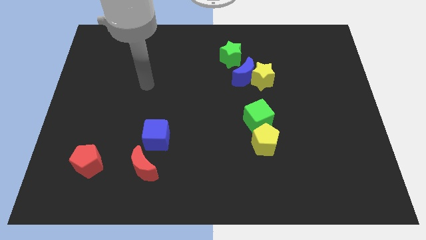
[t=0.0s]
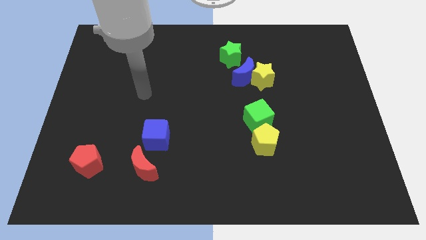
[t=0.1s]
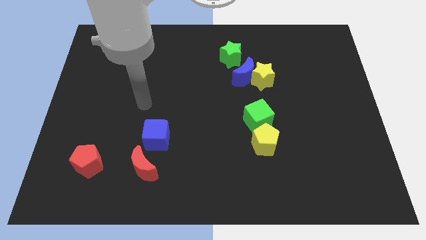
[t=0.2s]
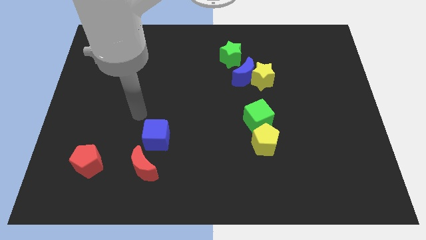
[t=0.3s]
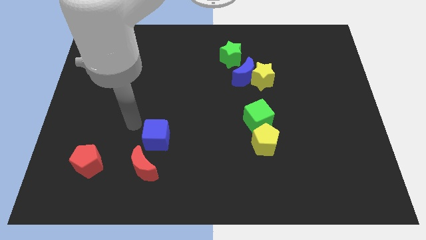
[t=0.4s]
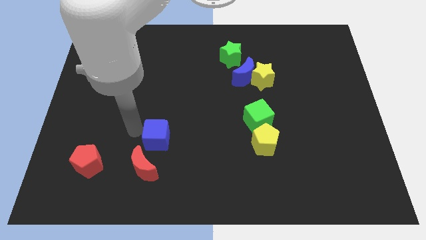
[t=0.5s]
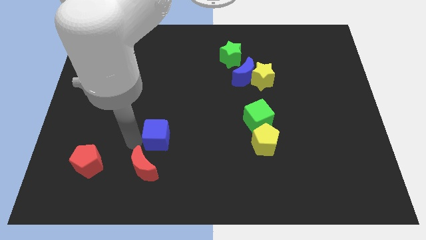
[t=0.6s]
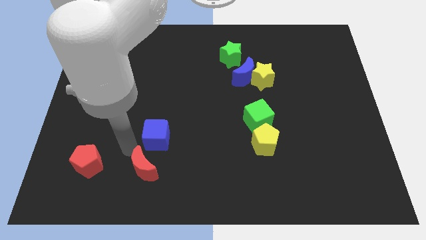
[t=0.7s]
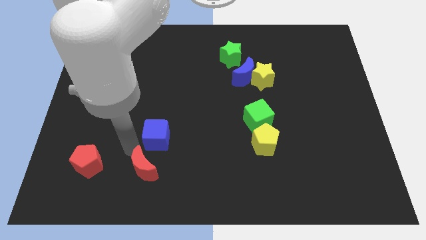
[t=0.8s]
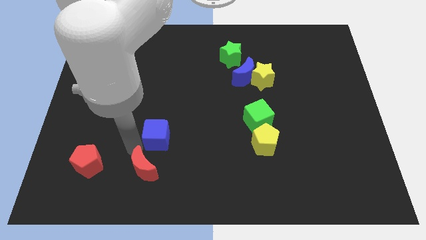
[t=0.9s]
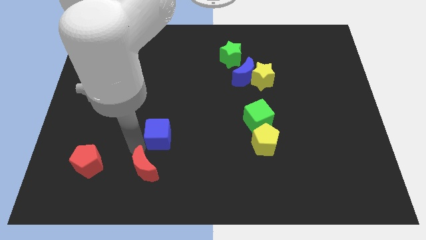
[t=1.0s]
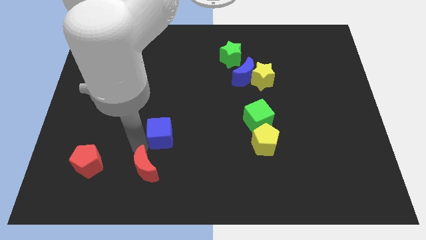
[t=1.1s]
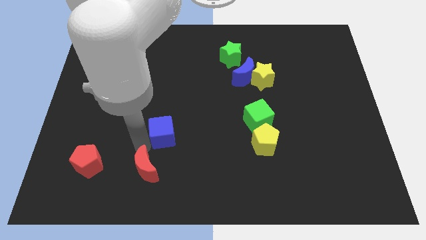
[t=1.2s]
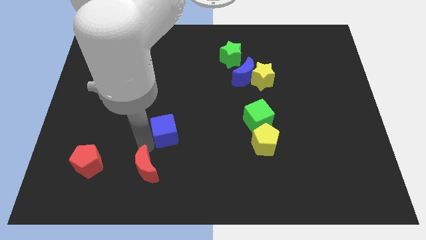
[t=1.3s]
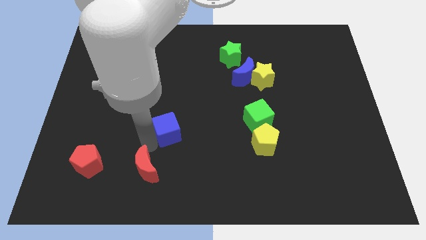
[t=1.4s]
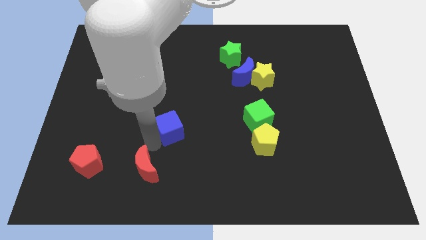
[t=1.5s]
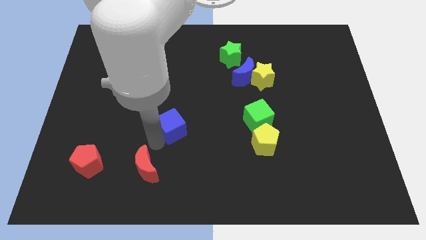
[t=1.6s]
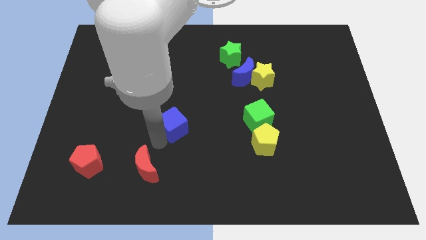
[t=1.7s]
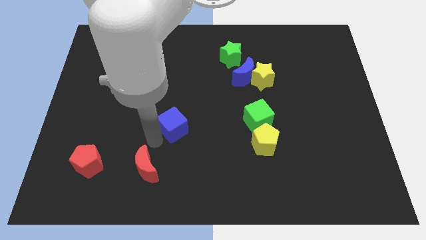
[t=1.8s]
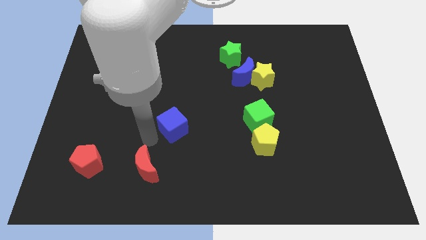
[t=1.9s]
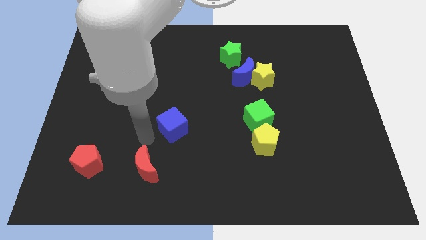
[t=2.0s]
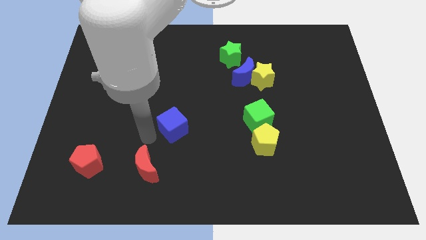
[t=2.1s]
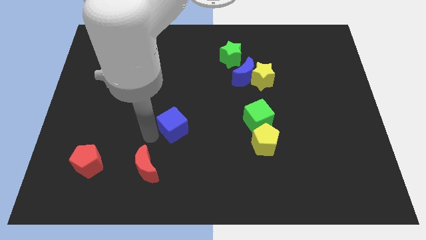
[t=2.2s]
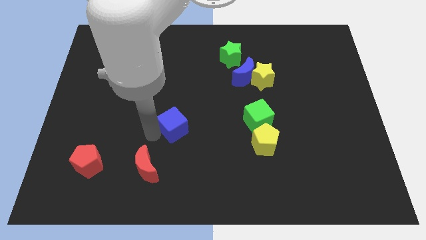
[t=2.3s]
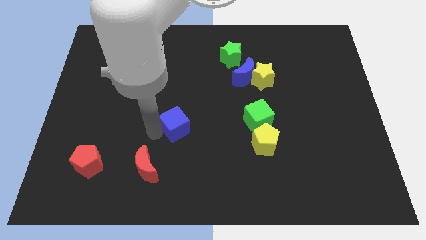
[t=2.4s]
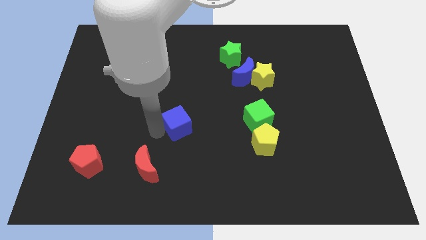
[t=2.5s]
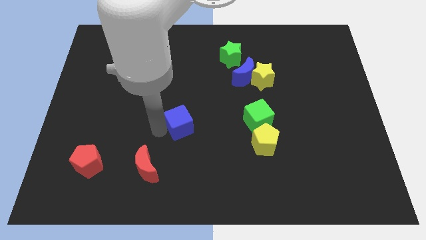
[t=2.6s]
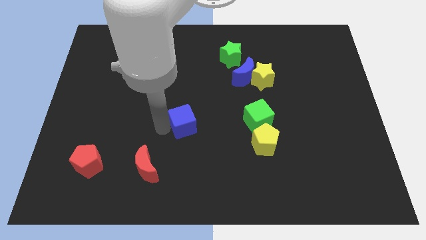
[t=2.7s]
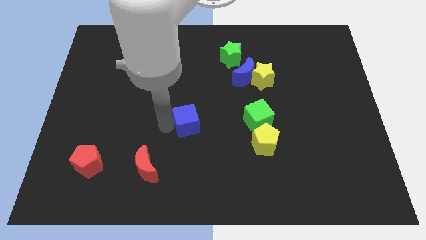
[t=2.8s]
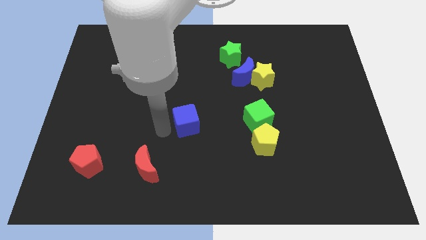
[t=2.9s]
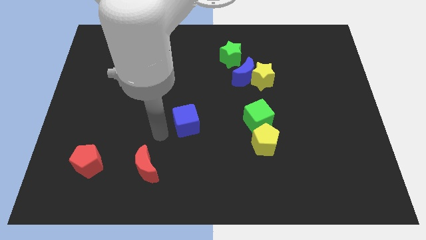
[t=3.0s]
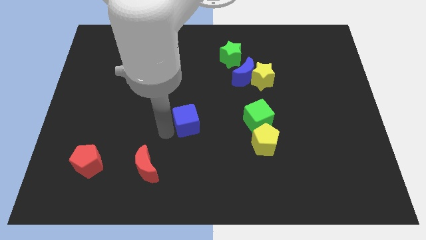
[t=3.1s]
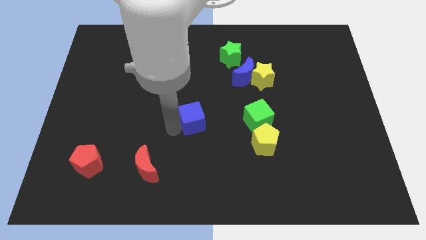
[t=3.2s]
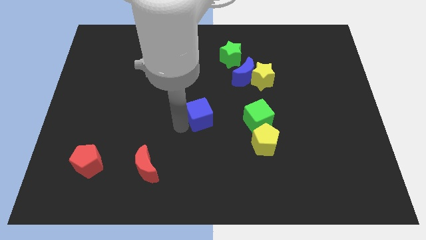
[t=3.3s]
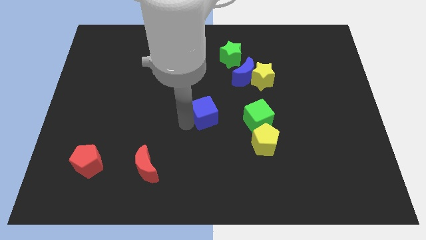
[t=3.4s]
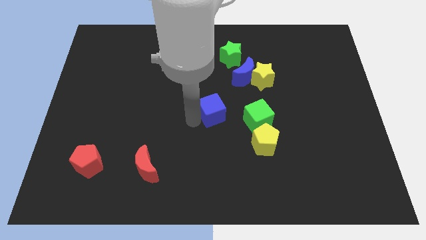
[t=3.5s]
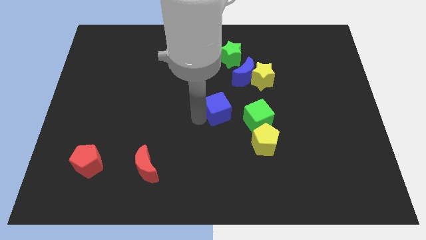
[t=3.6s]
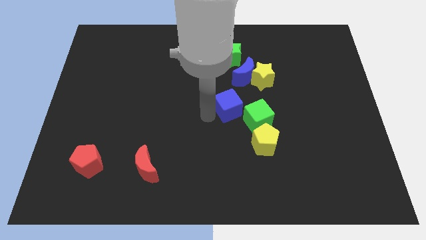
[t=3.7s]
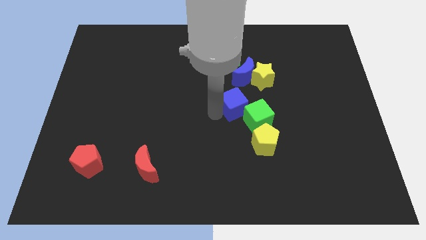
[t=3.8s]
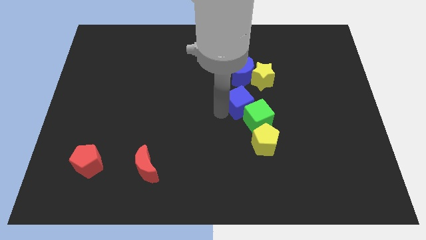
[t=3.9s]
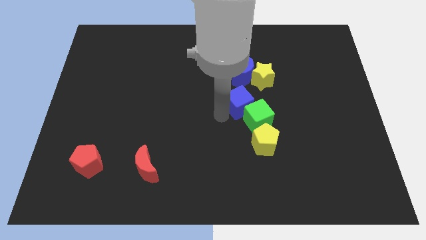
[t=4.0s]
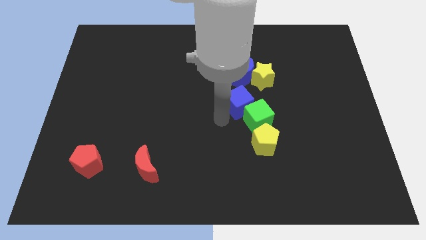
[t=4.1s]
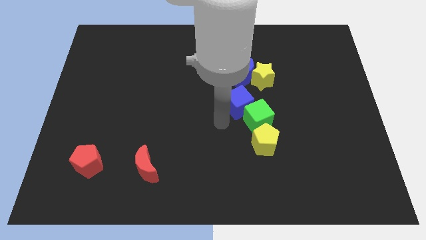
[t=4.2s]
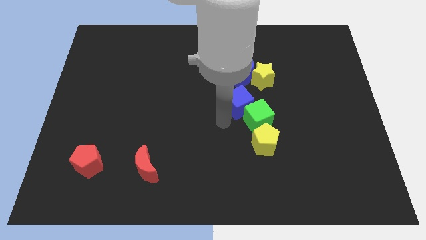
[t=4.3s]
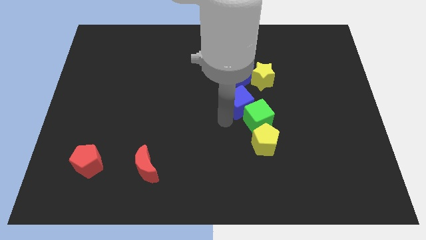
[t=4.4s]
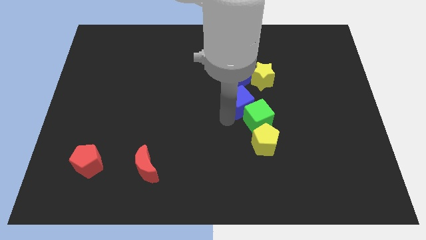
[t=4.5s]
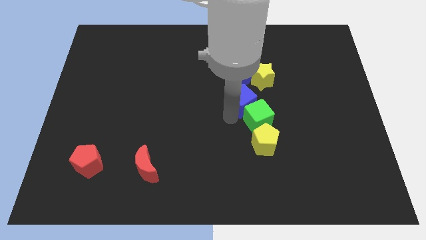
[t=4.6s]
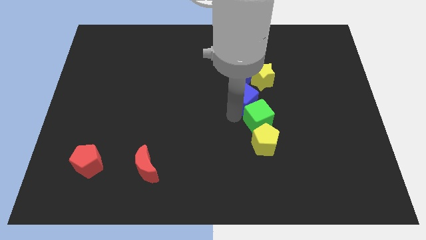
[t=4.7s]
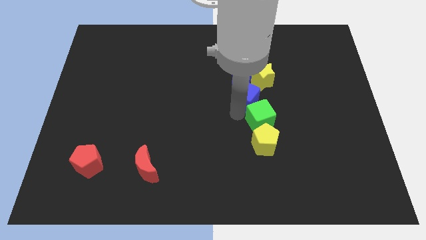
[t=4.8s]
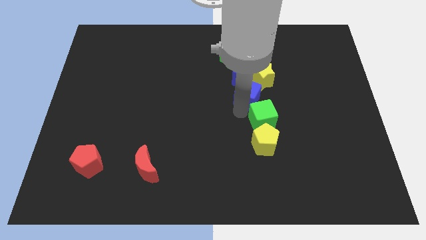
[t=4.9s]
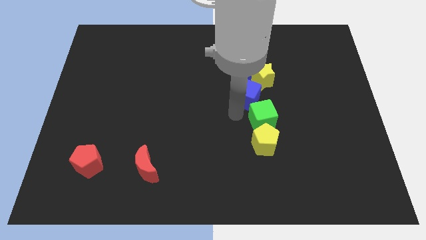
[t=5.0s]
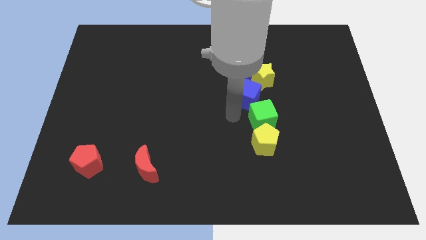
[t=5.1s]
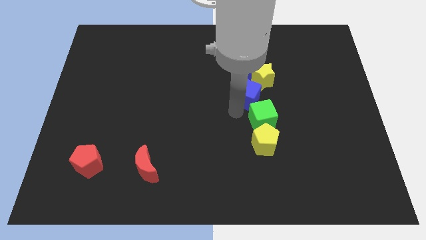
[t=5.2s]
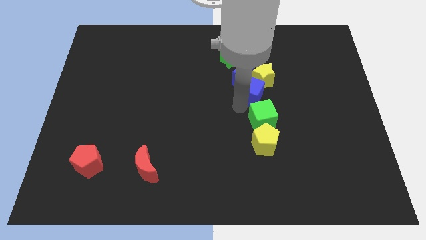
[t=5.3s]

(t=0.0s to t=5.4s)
push the blue cube close to the yellow star

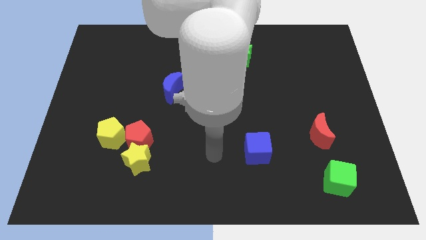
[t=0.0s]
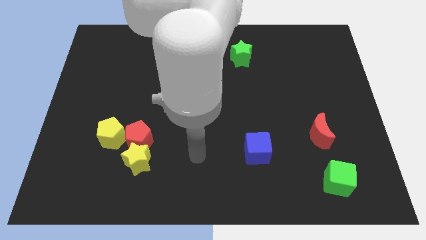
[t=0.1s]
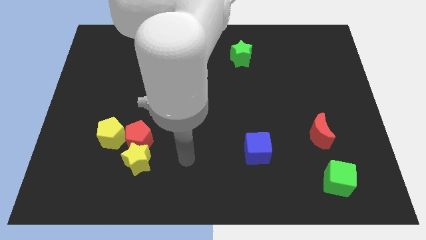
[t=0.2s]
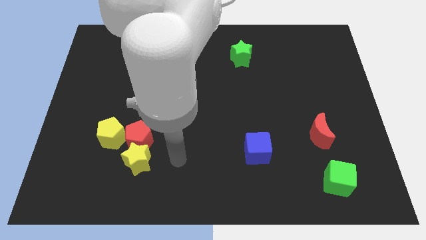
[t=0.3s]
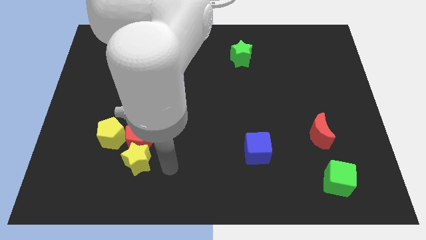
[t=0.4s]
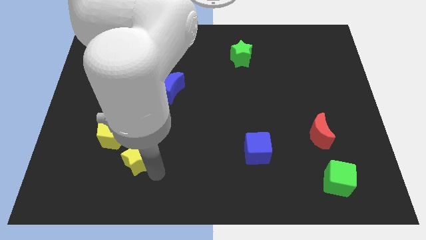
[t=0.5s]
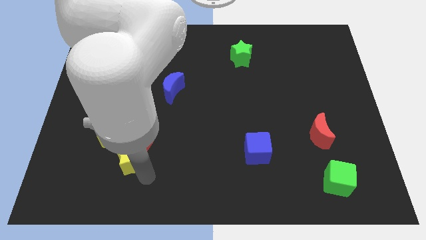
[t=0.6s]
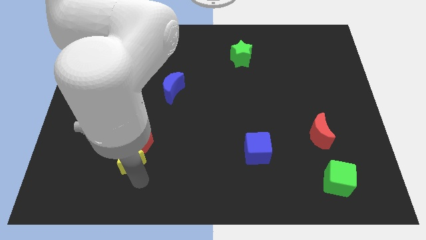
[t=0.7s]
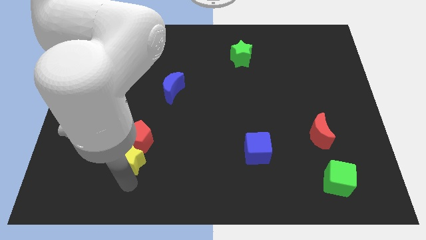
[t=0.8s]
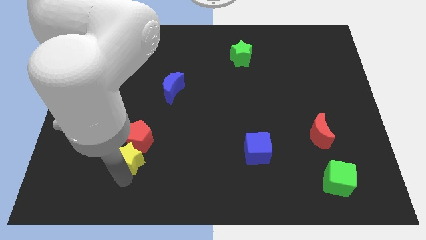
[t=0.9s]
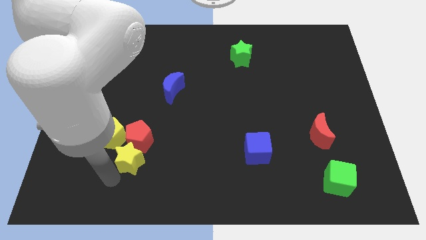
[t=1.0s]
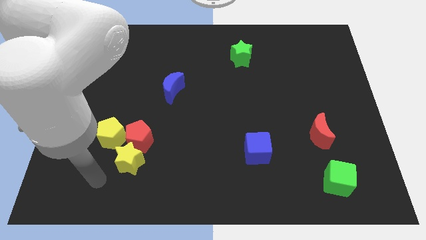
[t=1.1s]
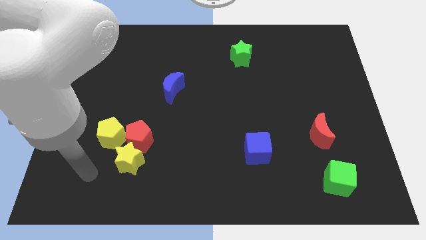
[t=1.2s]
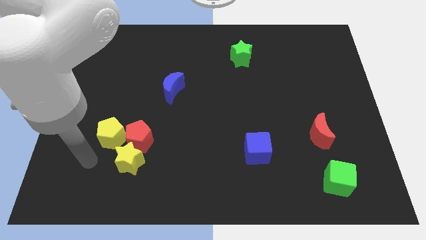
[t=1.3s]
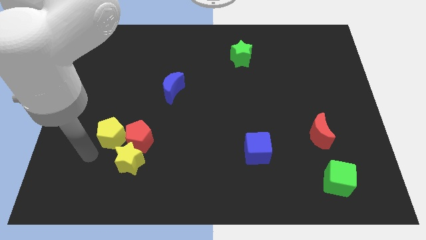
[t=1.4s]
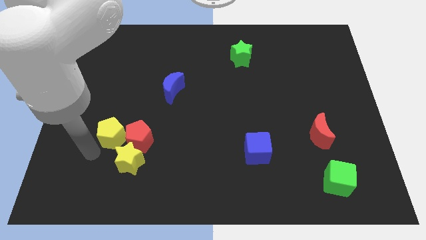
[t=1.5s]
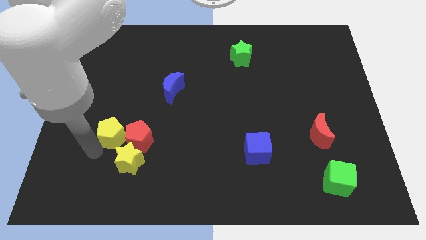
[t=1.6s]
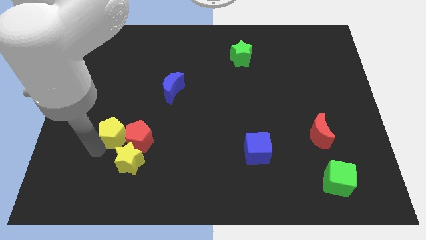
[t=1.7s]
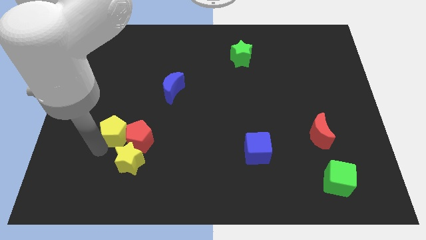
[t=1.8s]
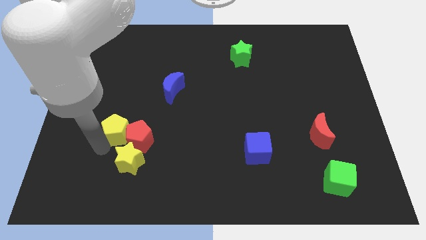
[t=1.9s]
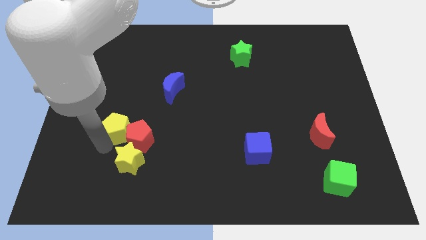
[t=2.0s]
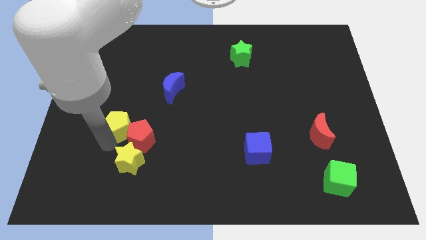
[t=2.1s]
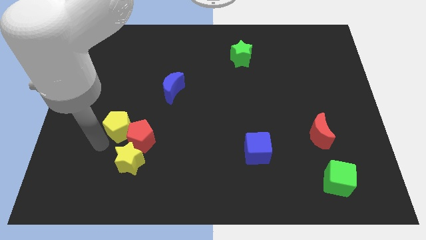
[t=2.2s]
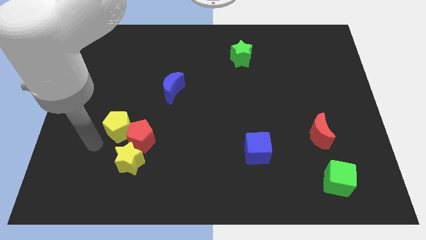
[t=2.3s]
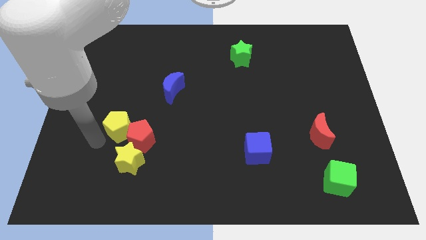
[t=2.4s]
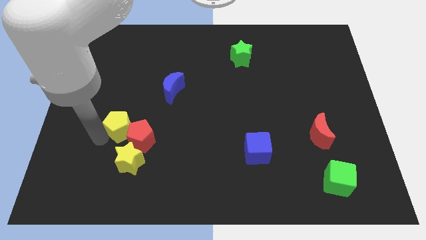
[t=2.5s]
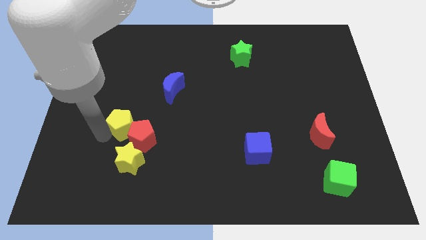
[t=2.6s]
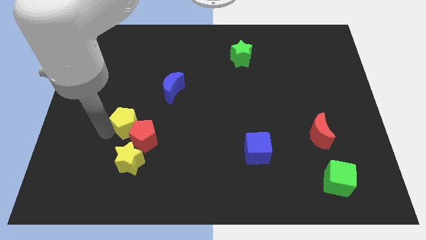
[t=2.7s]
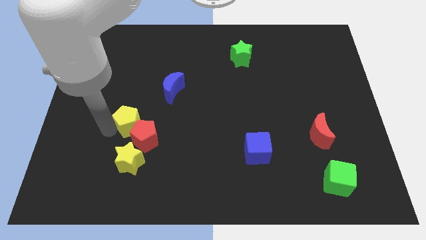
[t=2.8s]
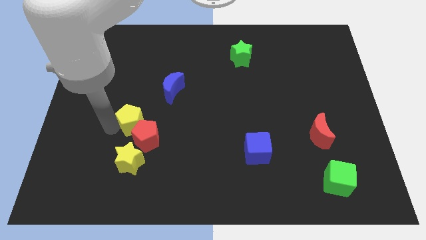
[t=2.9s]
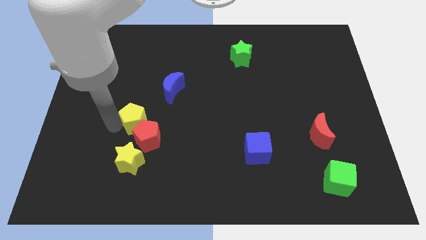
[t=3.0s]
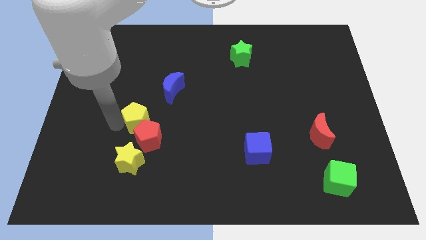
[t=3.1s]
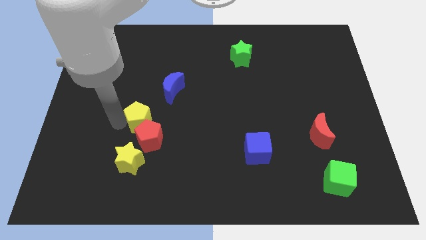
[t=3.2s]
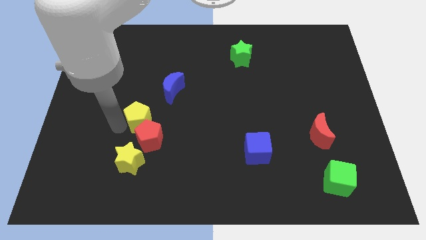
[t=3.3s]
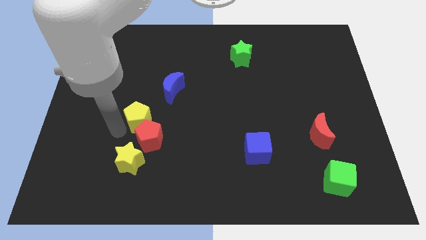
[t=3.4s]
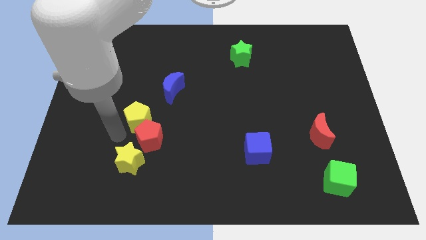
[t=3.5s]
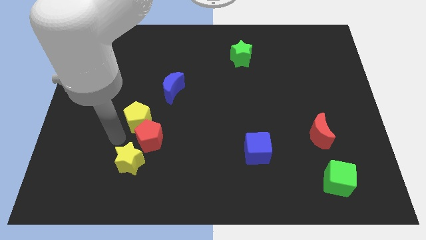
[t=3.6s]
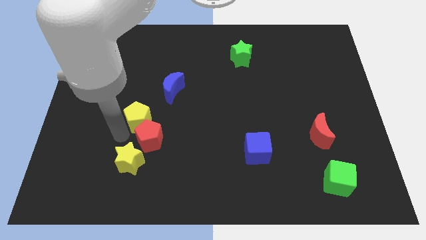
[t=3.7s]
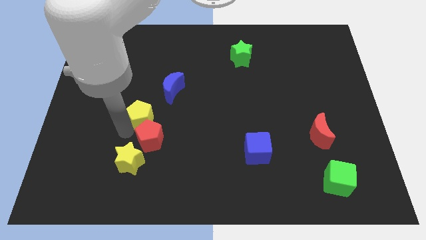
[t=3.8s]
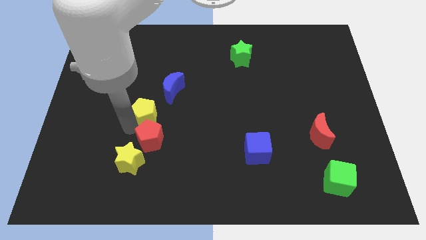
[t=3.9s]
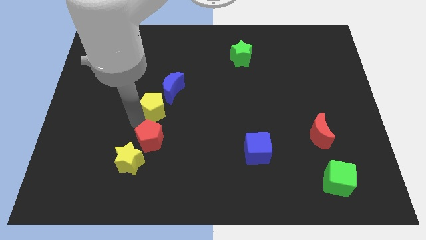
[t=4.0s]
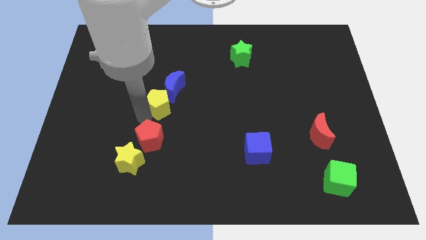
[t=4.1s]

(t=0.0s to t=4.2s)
put the yellow pentagon close to the blue moon
